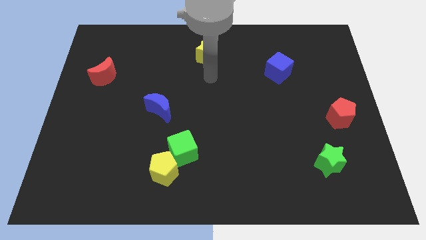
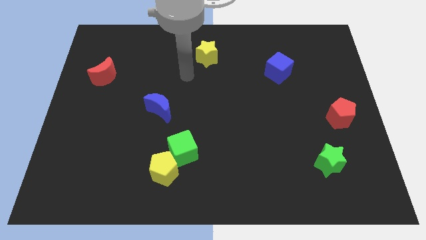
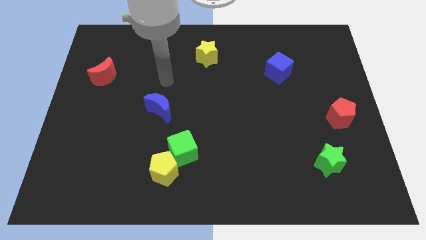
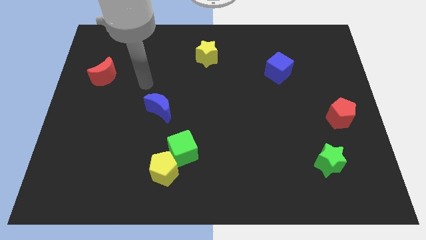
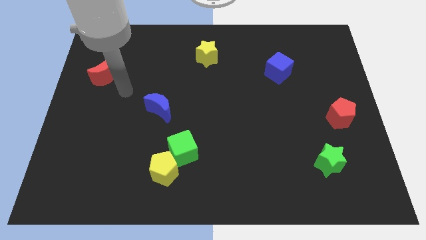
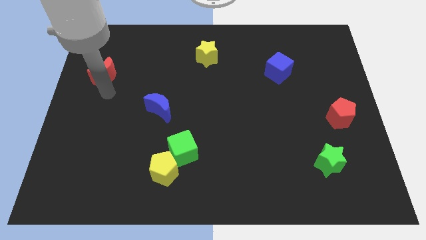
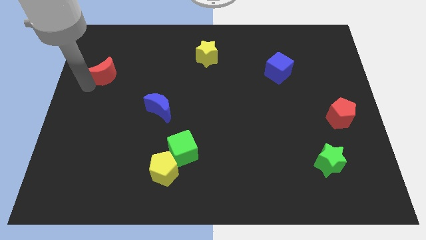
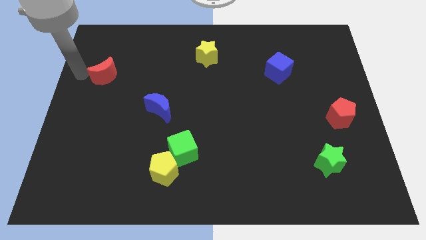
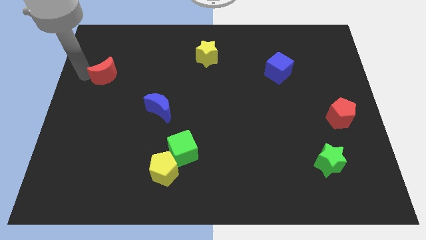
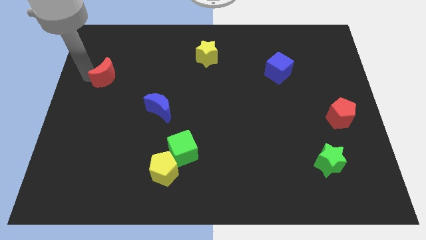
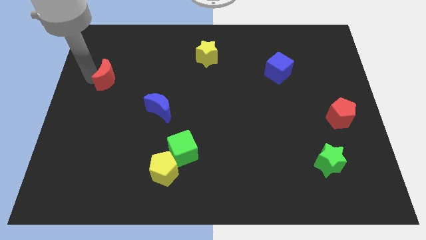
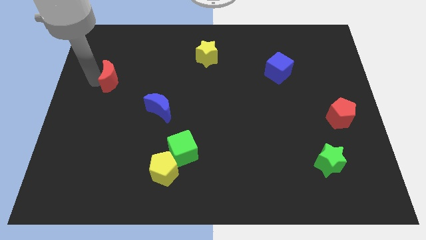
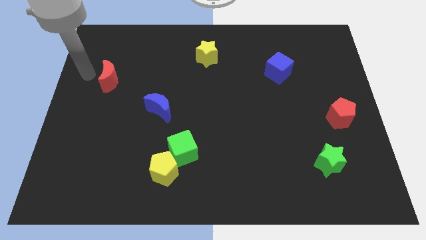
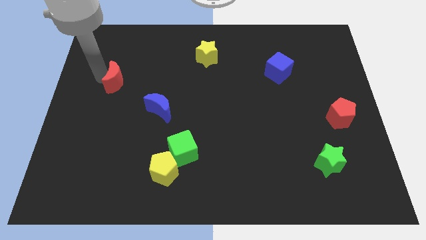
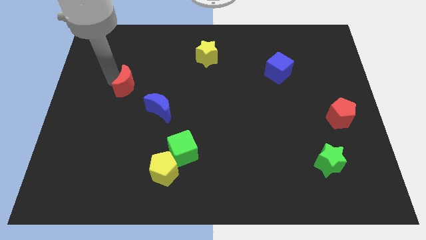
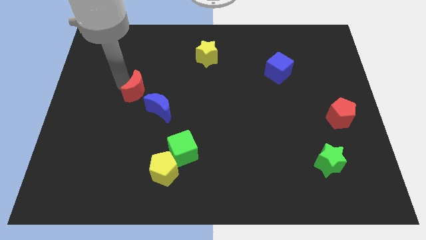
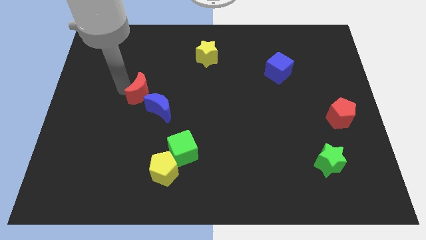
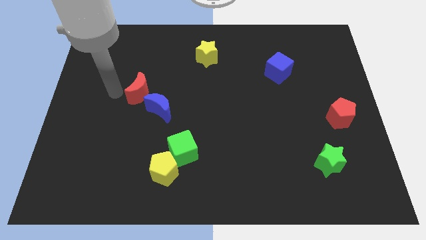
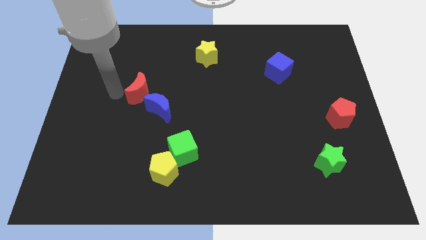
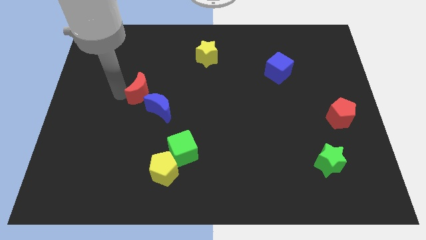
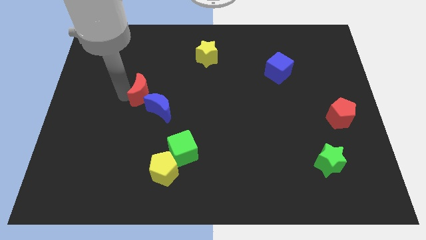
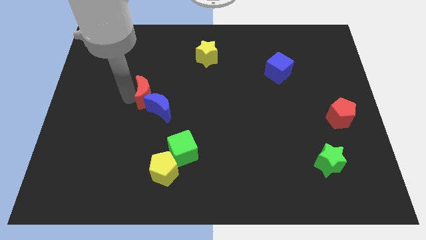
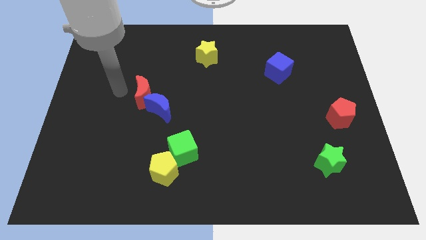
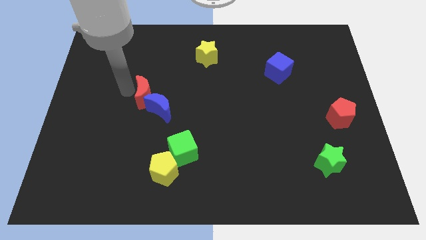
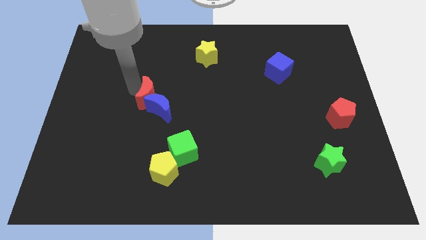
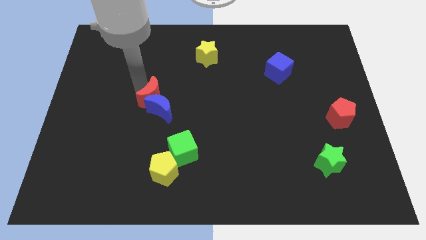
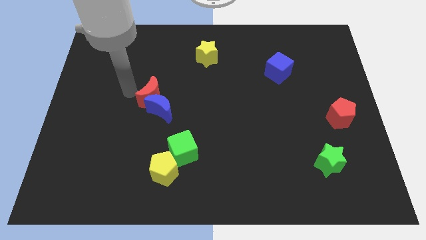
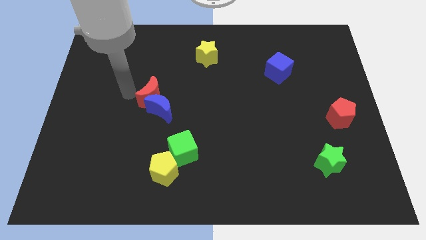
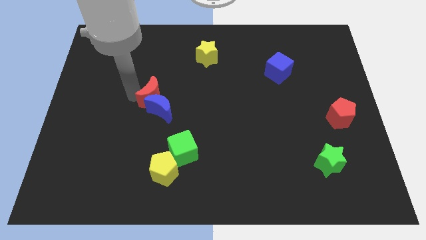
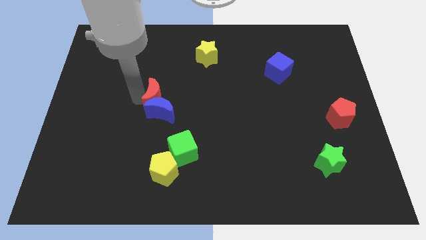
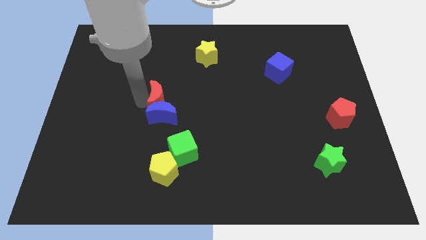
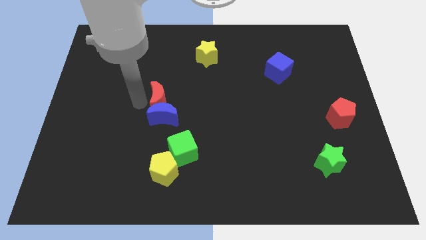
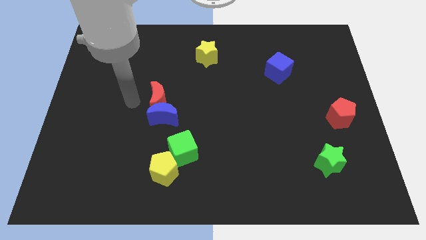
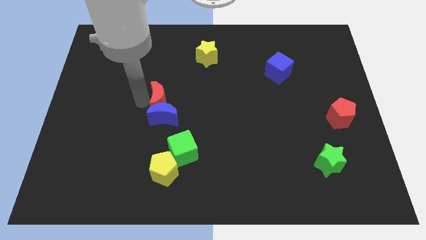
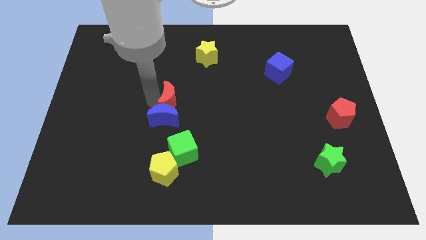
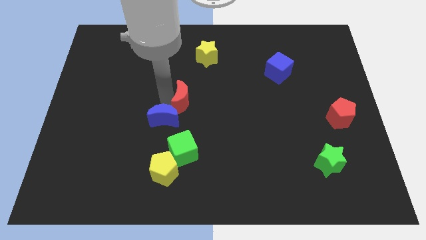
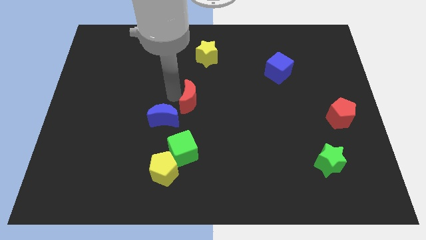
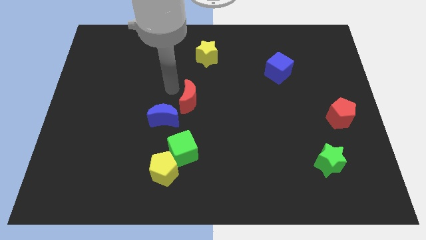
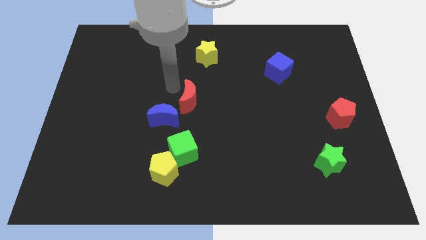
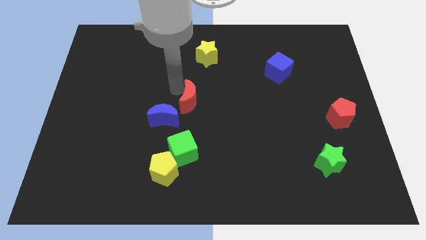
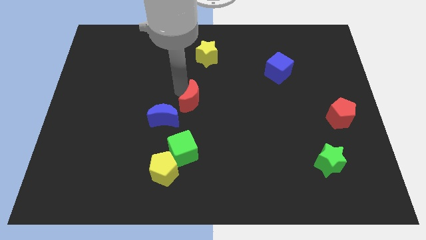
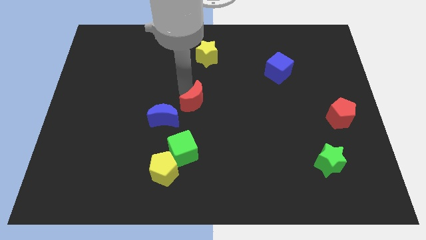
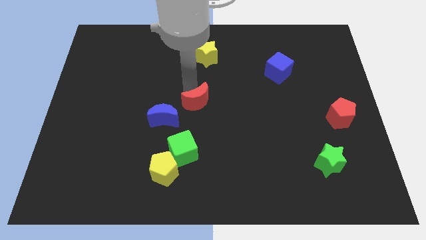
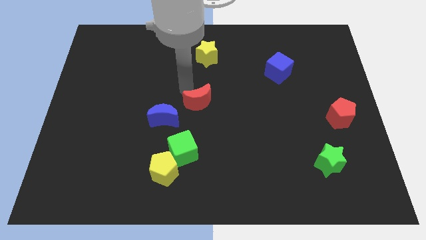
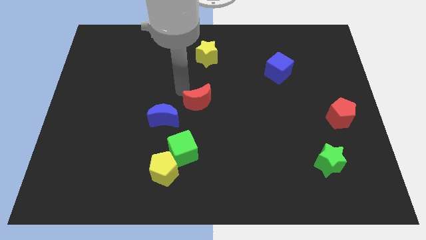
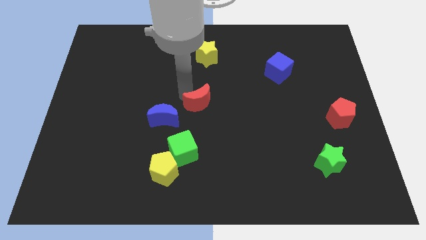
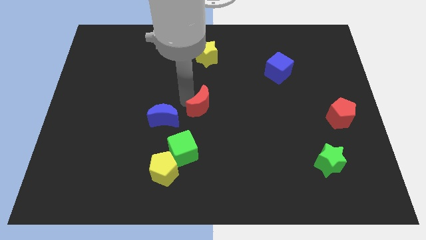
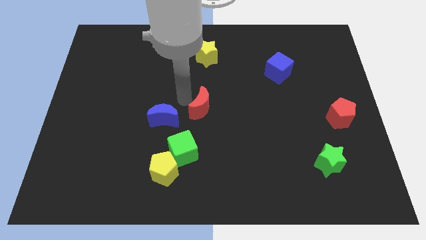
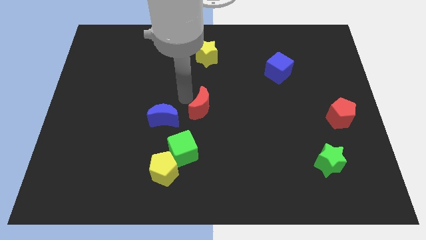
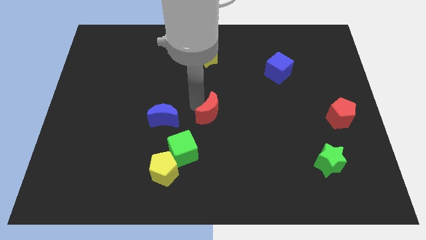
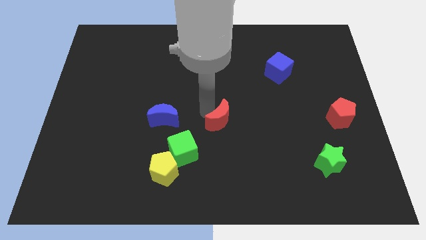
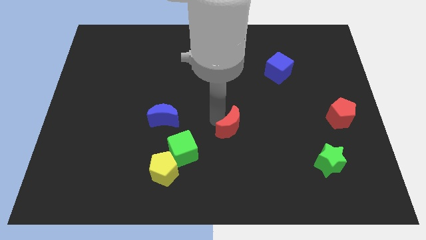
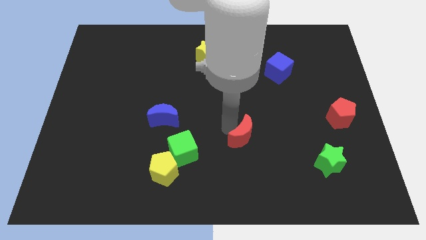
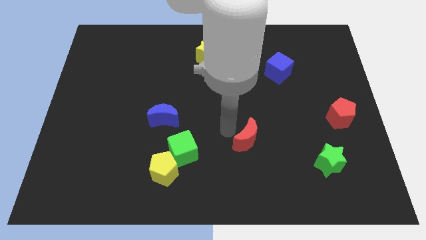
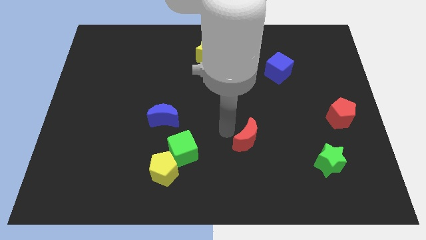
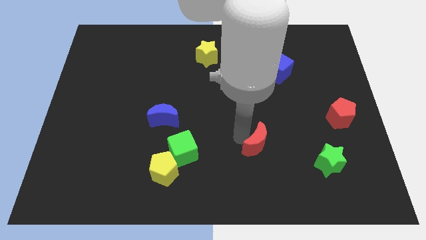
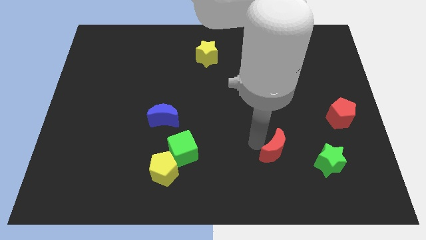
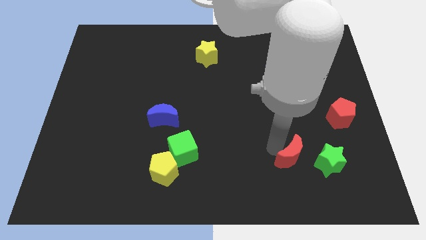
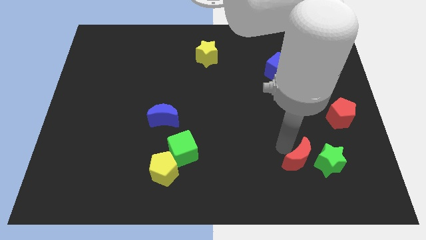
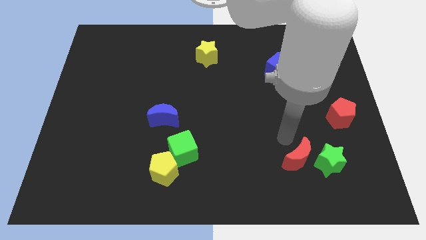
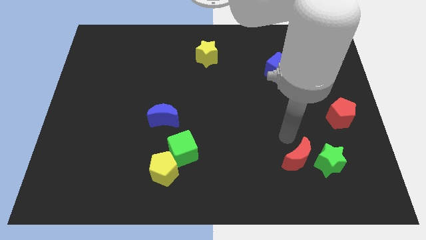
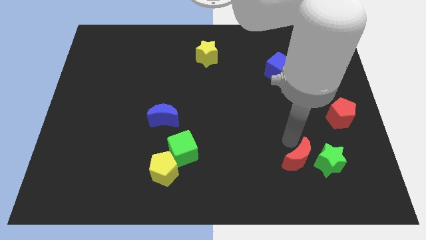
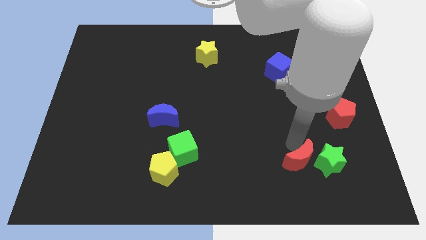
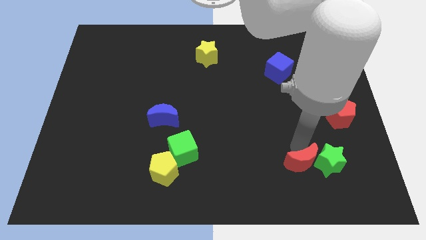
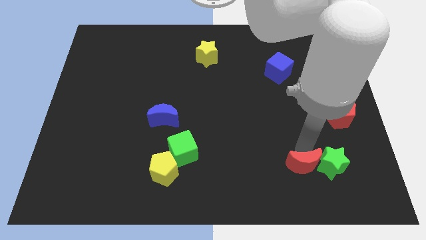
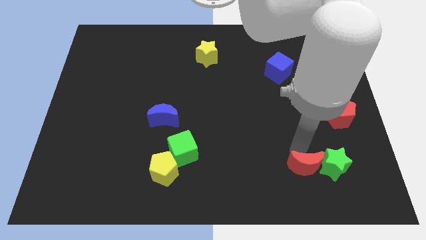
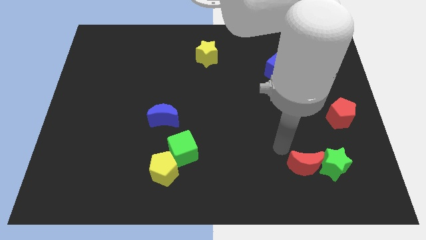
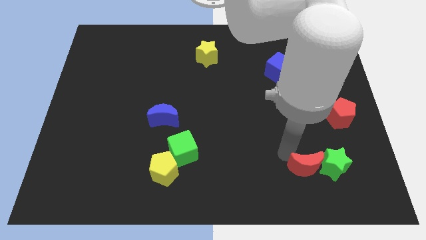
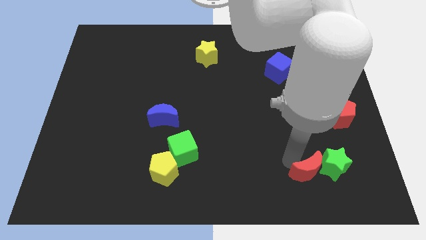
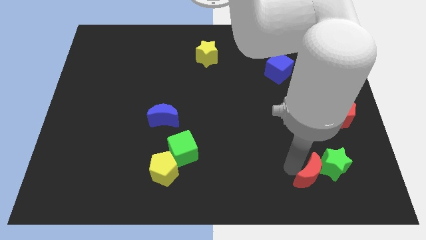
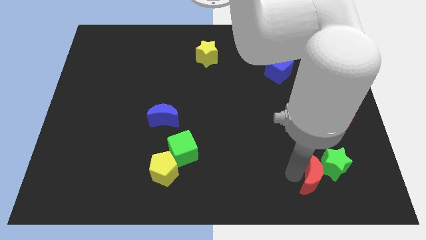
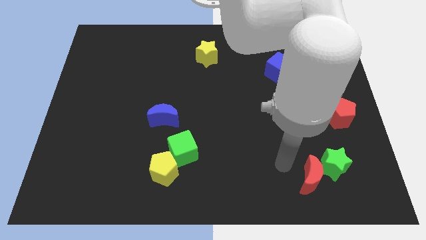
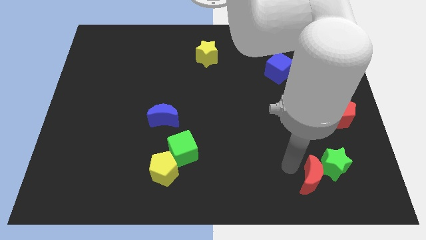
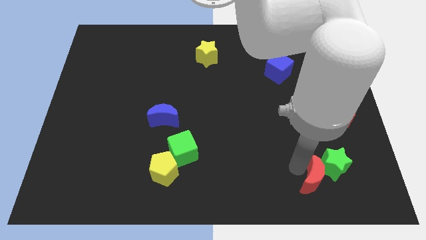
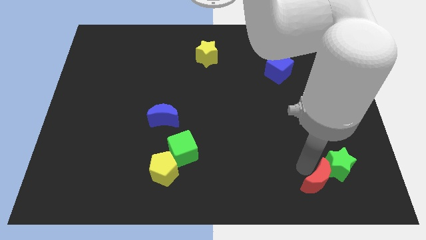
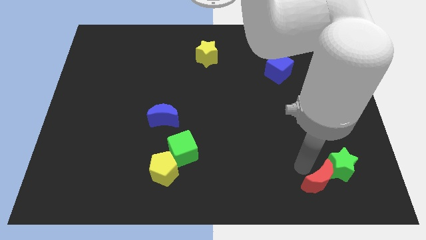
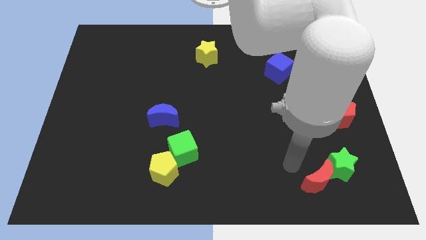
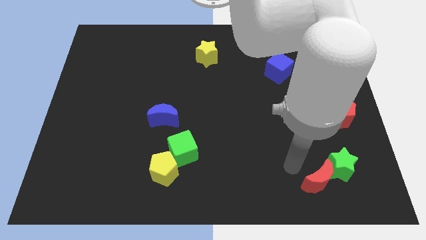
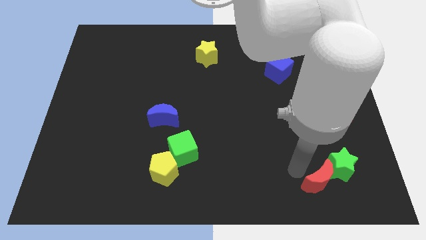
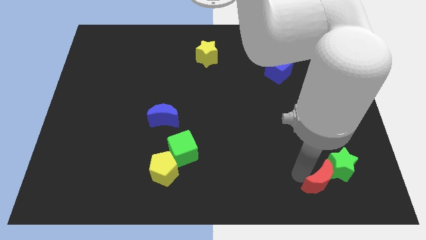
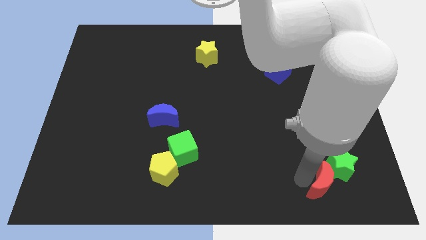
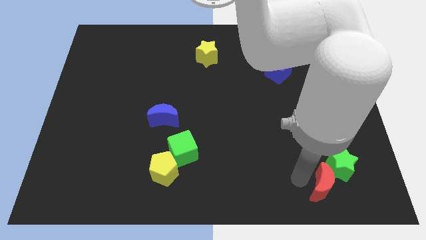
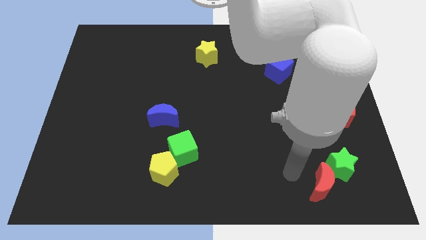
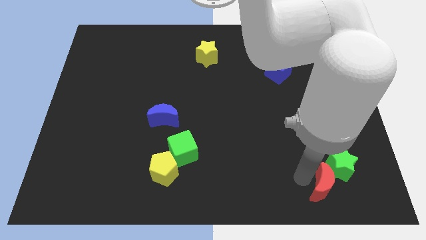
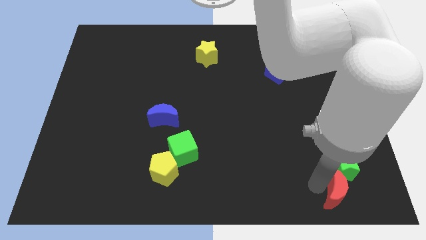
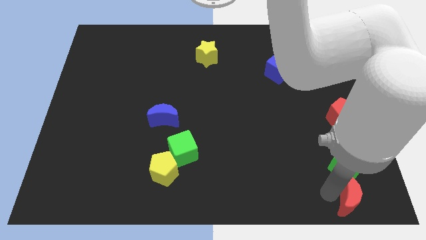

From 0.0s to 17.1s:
push the red moon to the lower right corner
